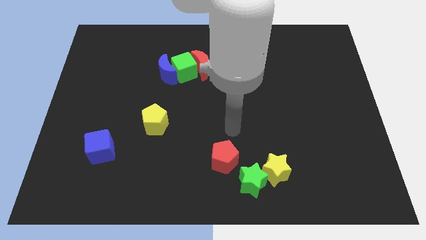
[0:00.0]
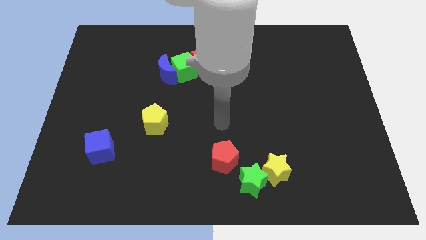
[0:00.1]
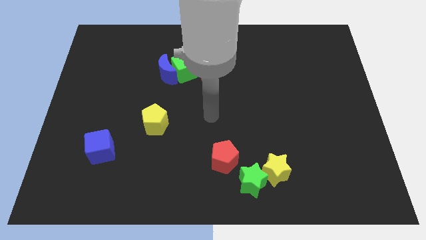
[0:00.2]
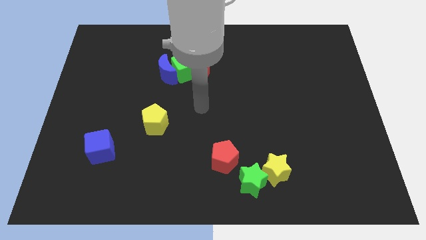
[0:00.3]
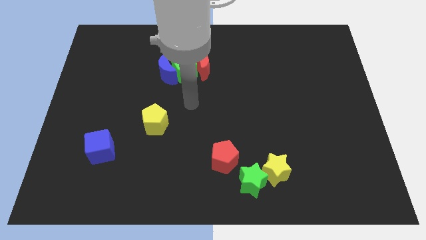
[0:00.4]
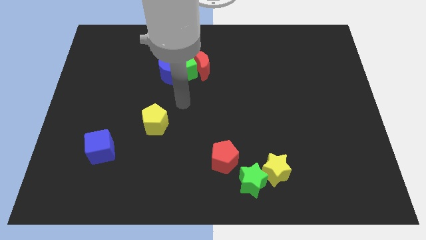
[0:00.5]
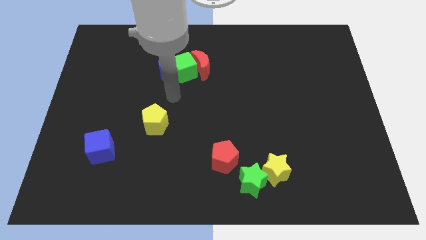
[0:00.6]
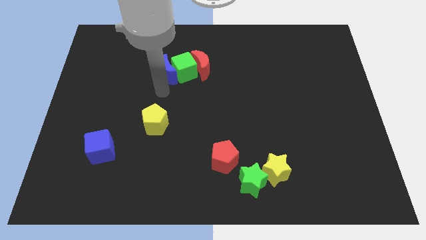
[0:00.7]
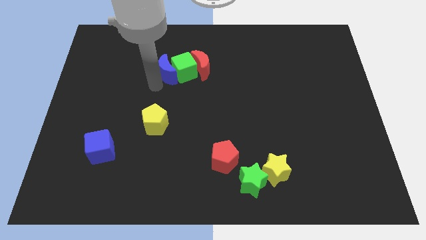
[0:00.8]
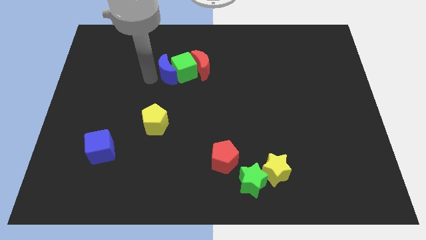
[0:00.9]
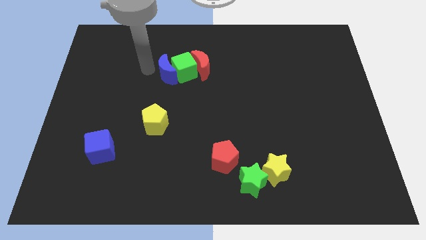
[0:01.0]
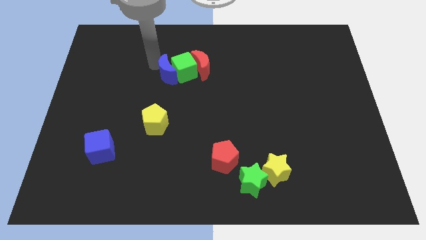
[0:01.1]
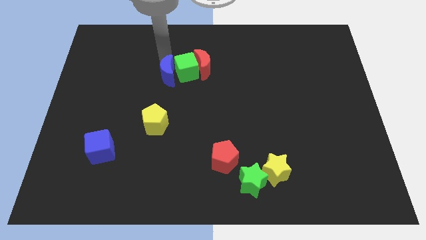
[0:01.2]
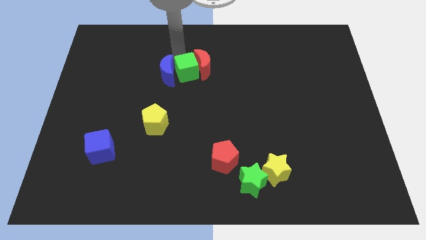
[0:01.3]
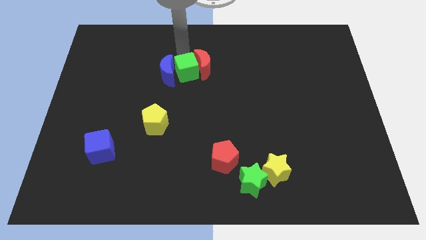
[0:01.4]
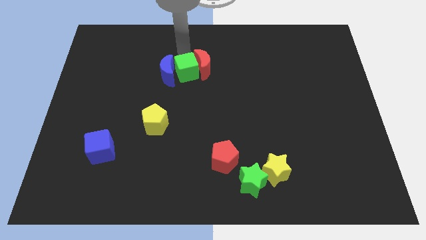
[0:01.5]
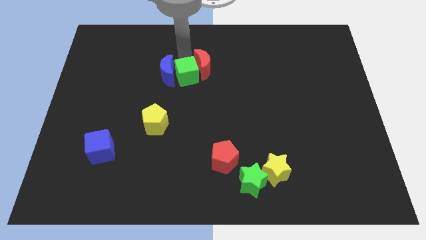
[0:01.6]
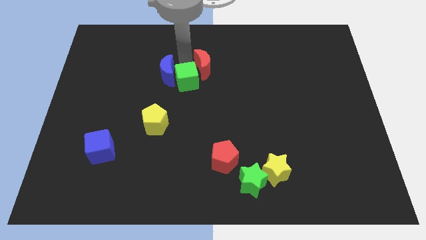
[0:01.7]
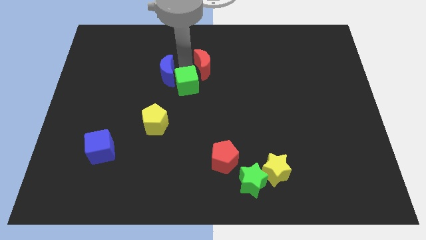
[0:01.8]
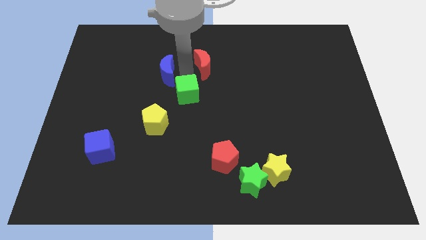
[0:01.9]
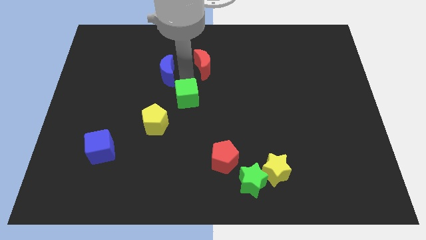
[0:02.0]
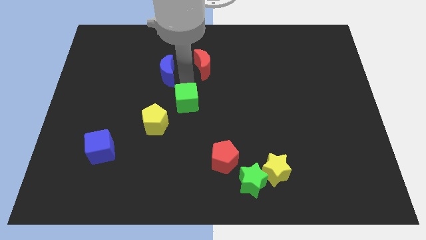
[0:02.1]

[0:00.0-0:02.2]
move the green cube away from the red moon and blue moon

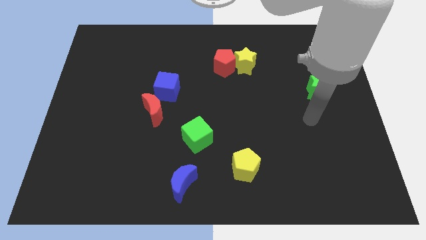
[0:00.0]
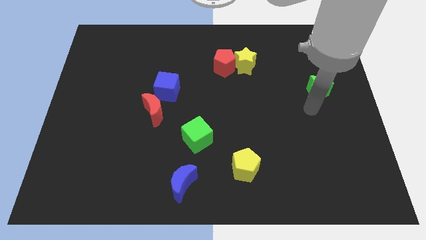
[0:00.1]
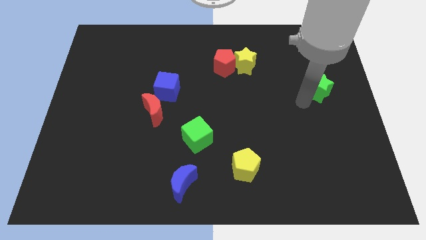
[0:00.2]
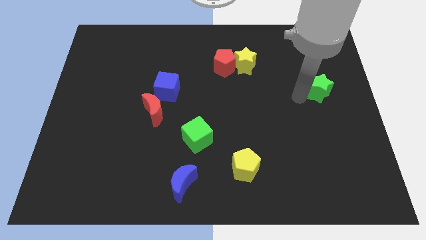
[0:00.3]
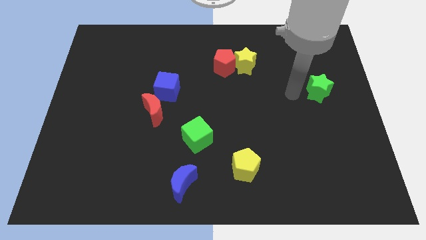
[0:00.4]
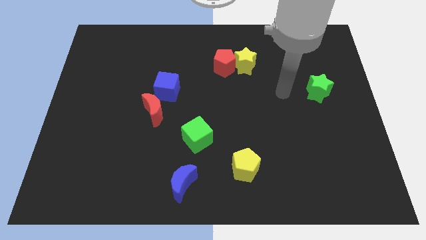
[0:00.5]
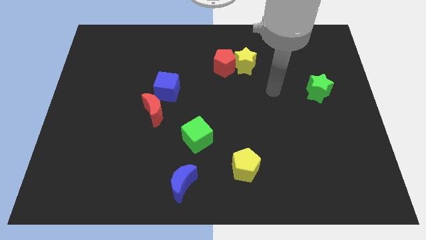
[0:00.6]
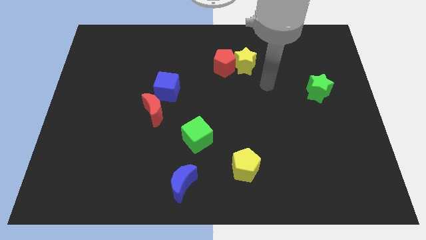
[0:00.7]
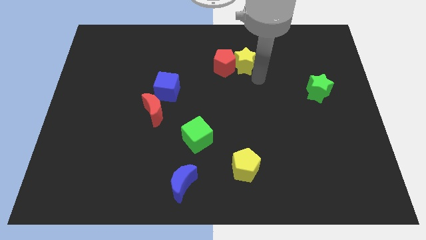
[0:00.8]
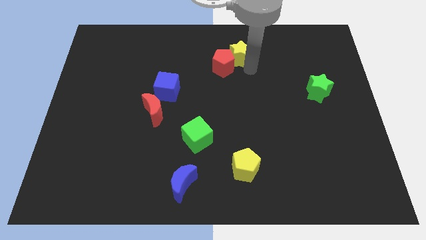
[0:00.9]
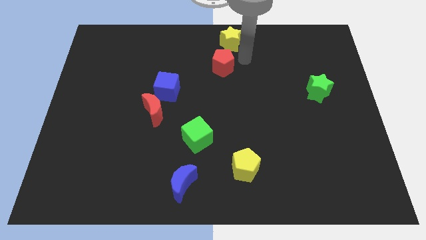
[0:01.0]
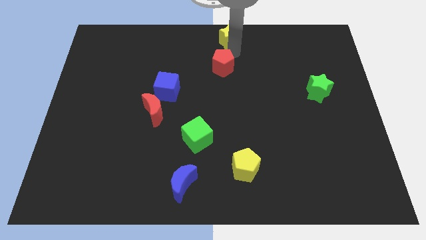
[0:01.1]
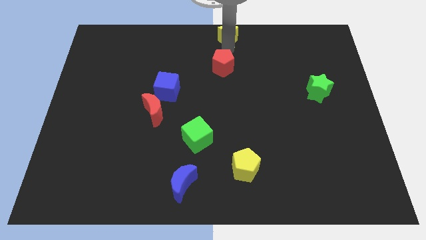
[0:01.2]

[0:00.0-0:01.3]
pull the red pentagon apart from the yellow star

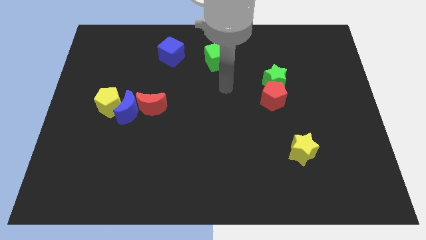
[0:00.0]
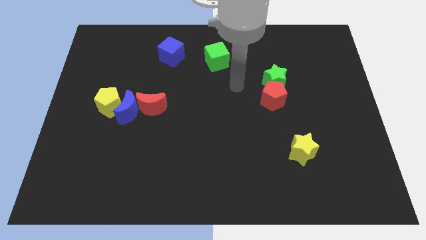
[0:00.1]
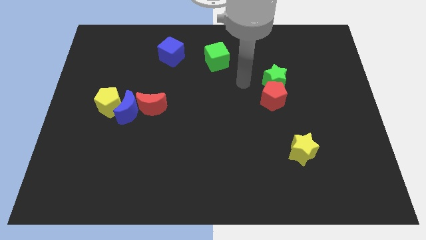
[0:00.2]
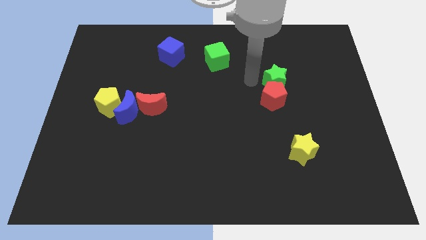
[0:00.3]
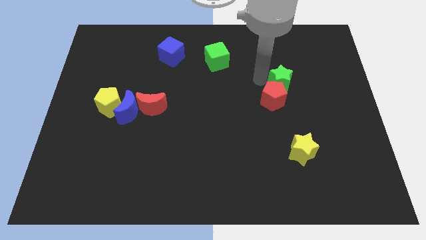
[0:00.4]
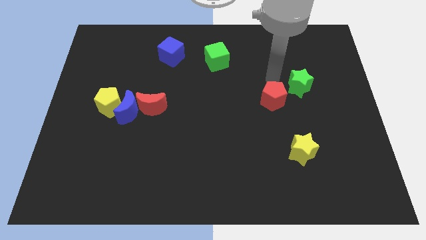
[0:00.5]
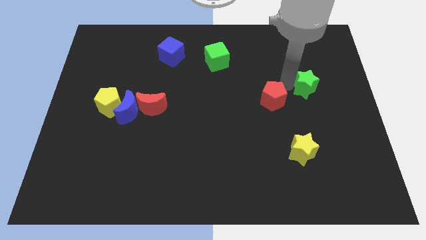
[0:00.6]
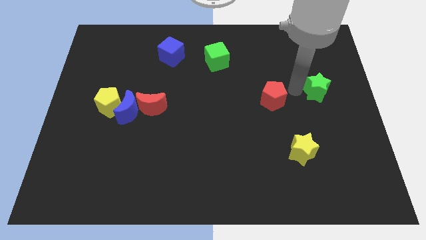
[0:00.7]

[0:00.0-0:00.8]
pull the red pentagon apart from the green star

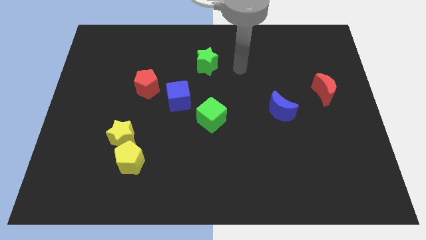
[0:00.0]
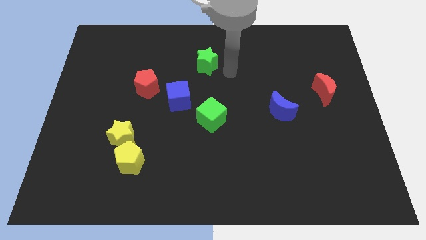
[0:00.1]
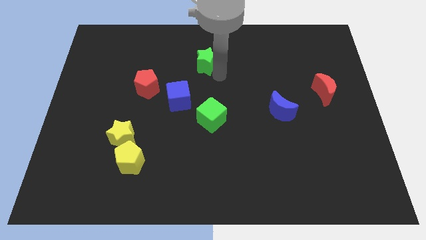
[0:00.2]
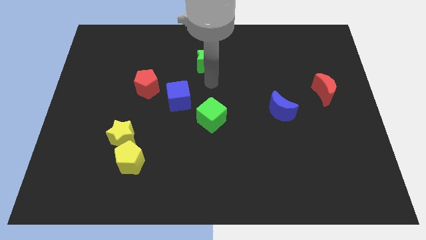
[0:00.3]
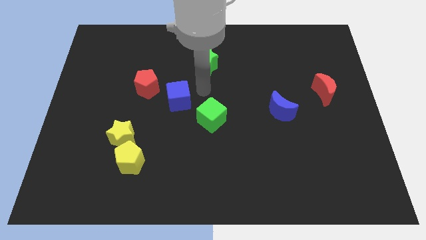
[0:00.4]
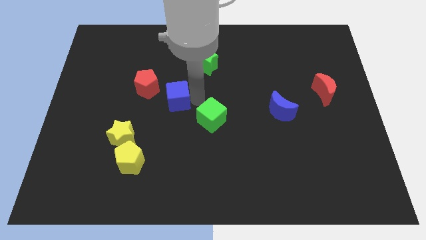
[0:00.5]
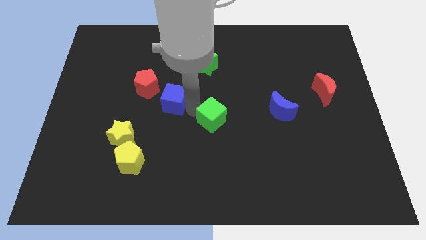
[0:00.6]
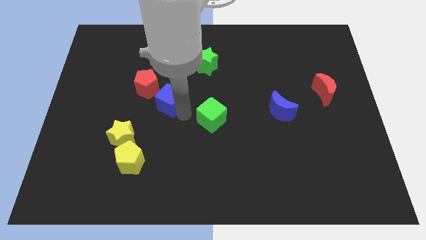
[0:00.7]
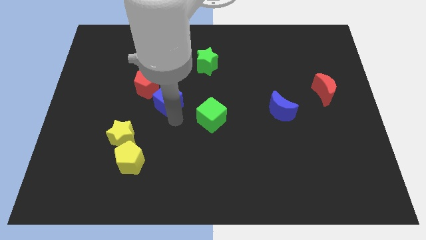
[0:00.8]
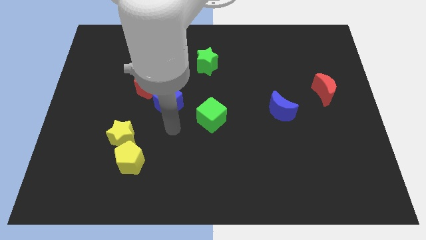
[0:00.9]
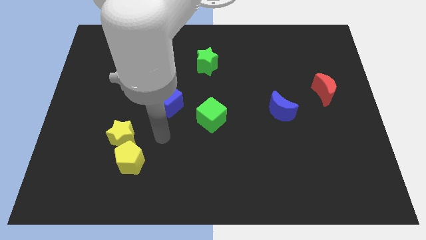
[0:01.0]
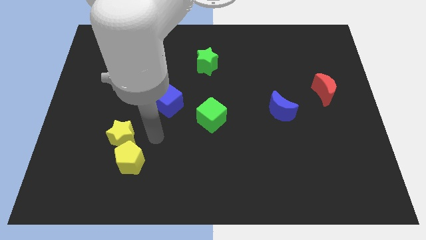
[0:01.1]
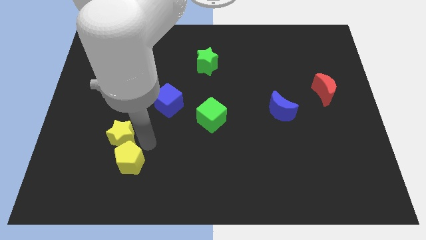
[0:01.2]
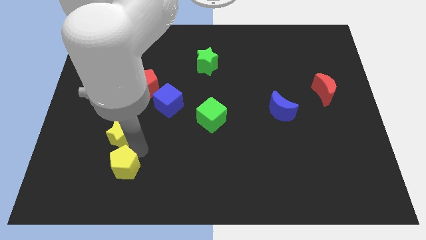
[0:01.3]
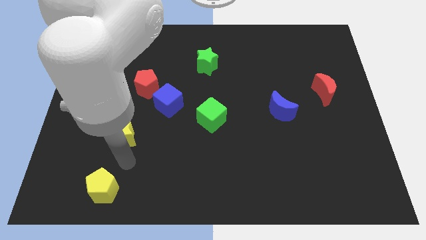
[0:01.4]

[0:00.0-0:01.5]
move the yellow star away from the yellow pentagon

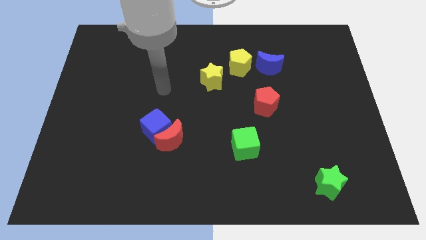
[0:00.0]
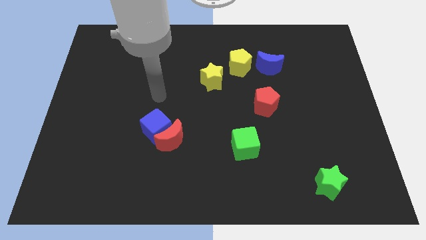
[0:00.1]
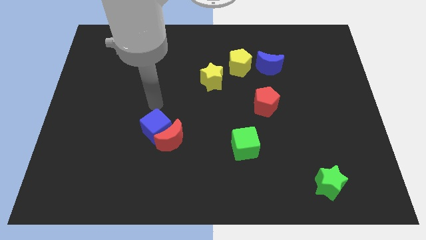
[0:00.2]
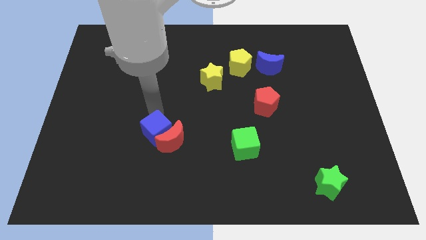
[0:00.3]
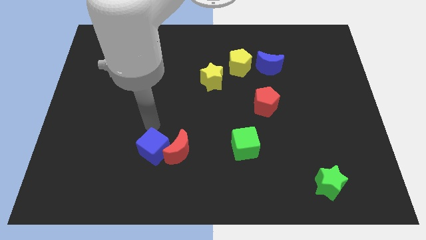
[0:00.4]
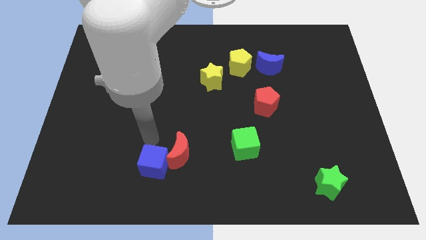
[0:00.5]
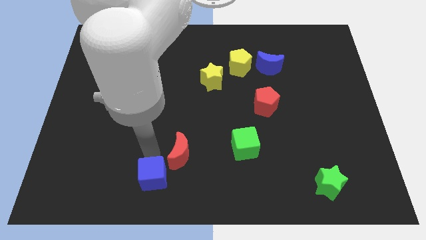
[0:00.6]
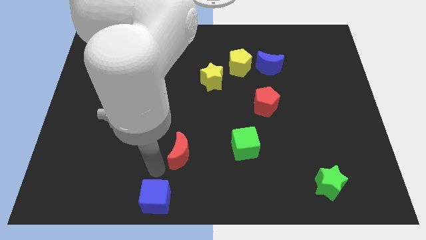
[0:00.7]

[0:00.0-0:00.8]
pull the red moon apart from the blue cube

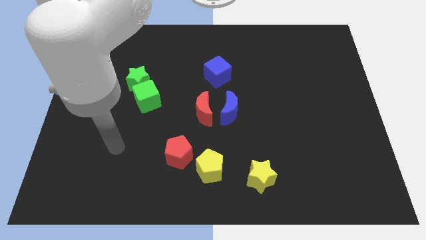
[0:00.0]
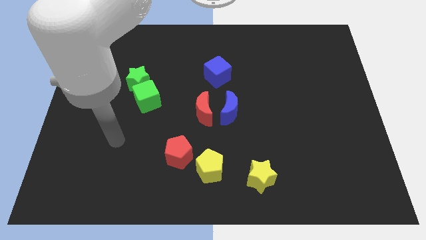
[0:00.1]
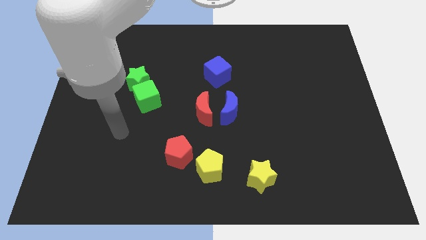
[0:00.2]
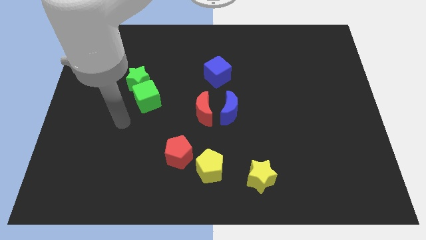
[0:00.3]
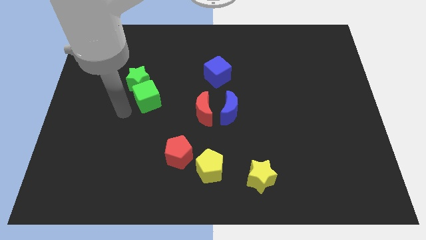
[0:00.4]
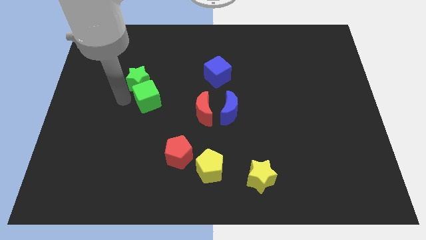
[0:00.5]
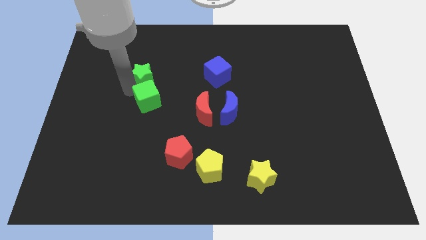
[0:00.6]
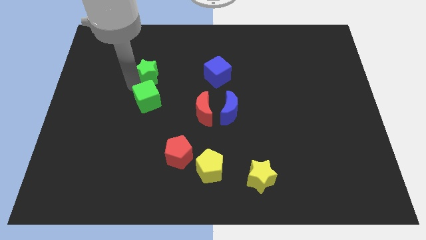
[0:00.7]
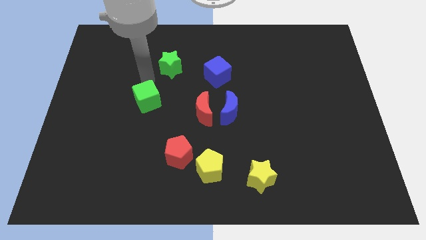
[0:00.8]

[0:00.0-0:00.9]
move the green cube away from the green star

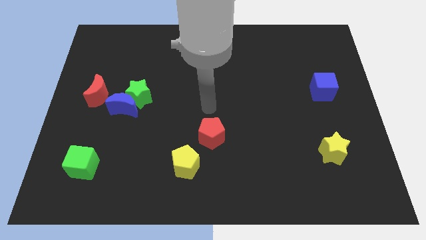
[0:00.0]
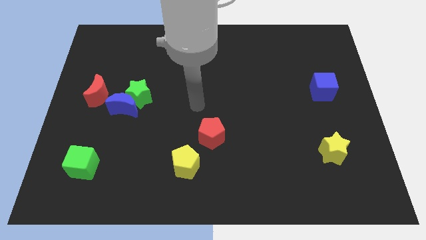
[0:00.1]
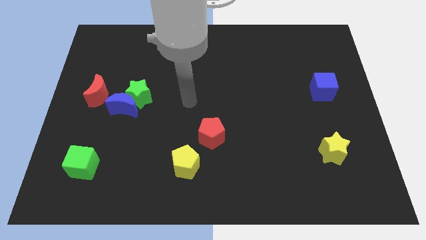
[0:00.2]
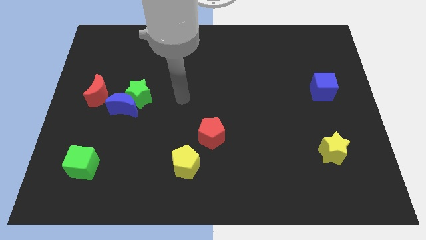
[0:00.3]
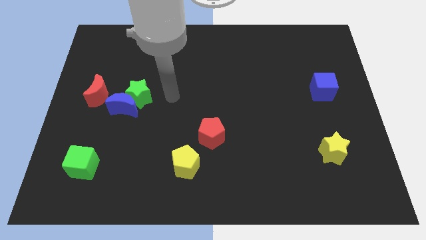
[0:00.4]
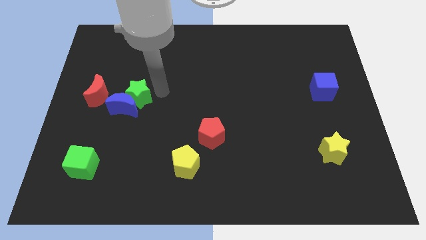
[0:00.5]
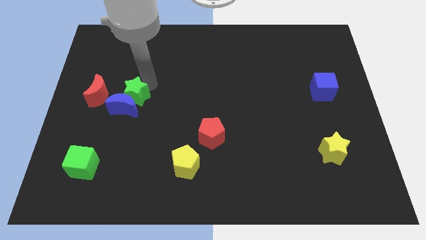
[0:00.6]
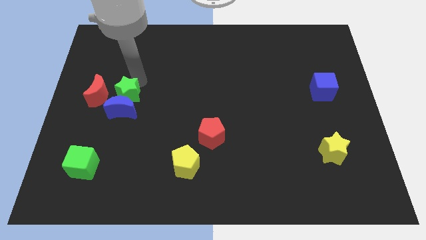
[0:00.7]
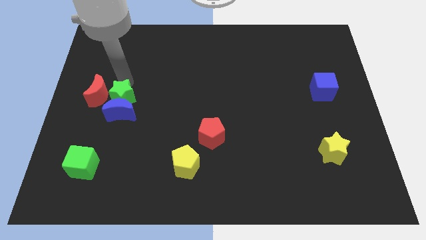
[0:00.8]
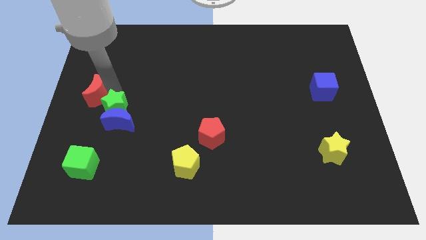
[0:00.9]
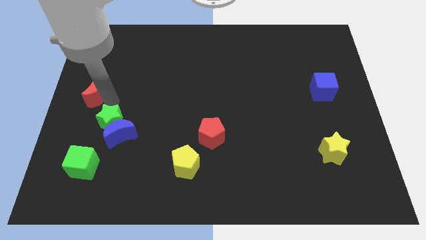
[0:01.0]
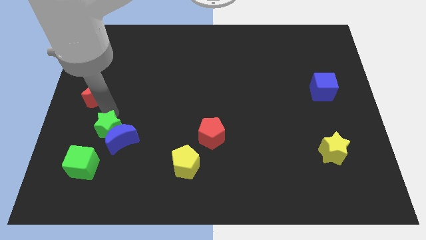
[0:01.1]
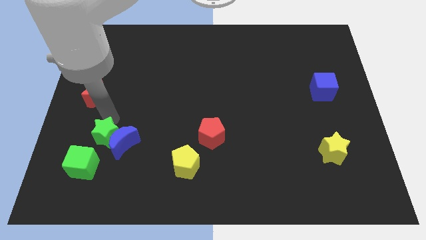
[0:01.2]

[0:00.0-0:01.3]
pull the blue moon apart from the green star and red moon

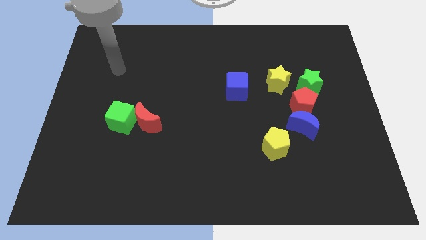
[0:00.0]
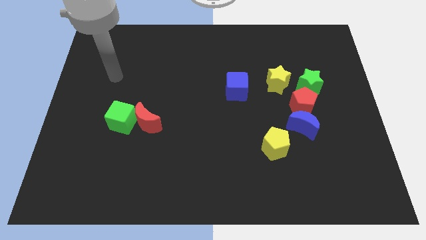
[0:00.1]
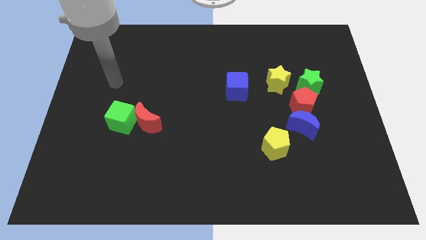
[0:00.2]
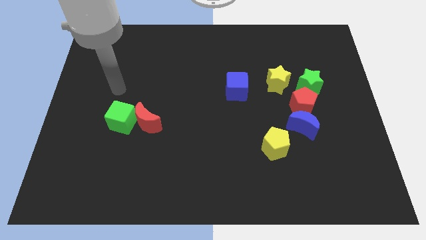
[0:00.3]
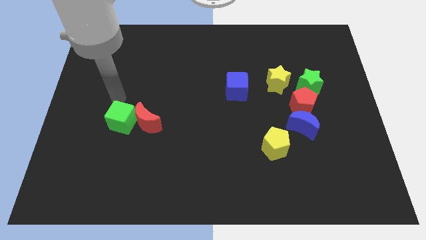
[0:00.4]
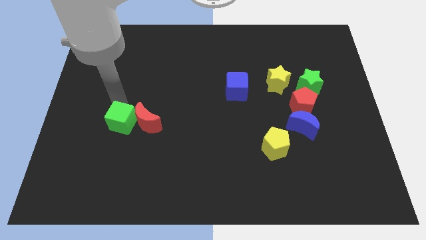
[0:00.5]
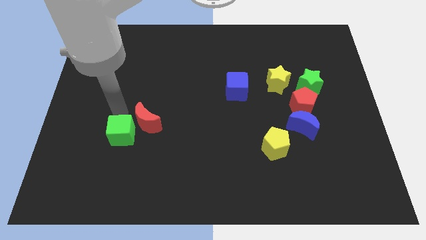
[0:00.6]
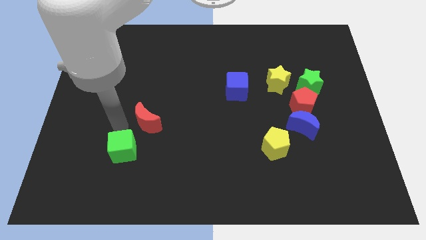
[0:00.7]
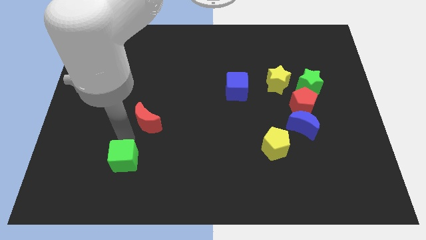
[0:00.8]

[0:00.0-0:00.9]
pull the red moon apart from the green cube
